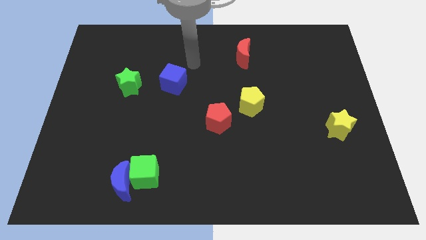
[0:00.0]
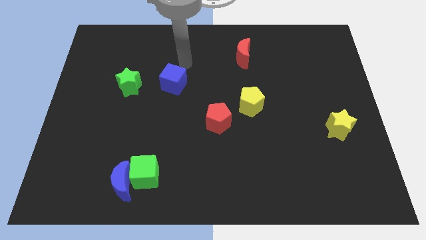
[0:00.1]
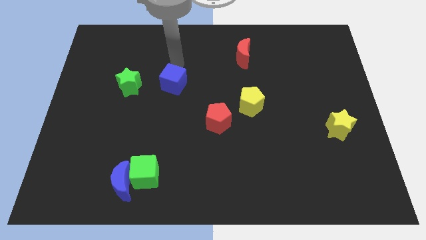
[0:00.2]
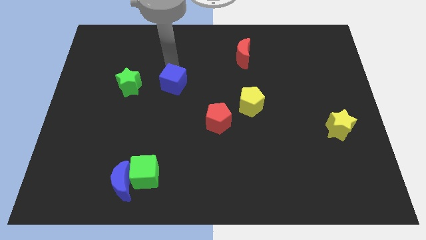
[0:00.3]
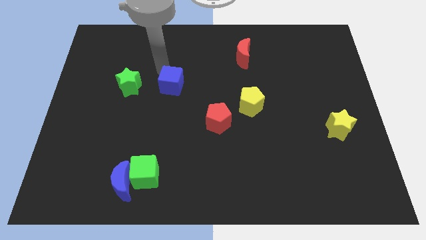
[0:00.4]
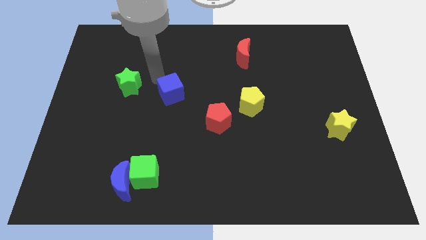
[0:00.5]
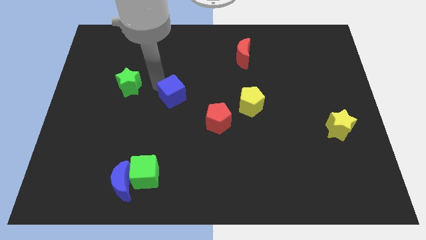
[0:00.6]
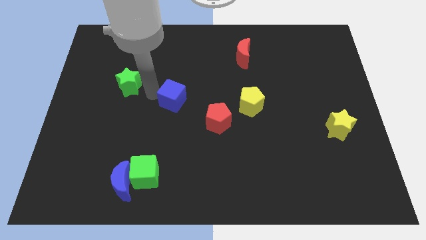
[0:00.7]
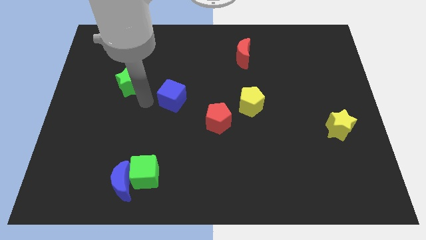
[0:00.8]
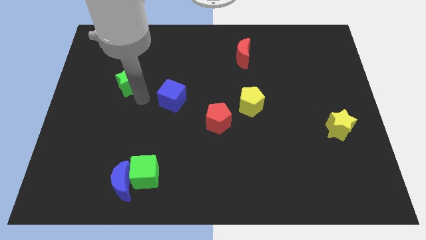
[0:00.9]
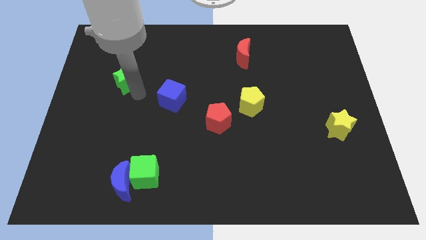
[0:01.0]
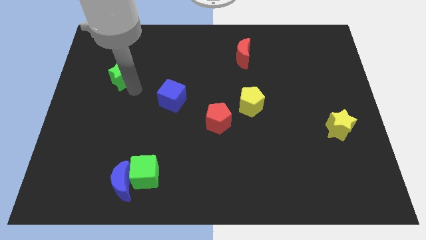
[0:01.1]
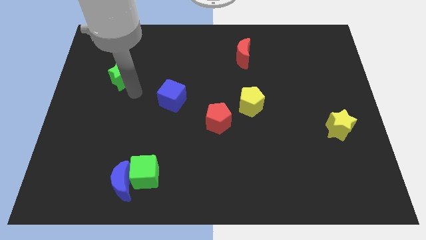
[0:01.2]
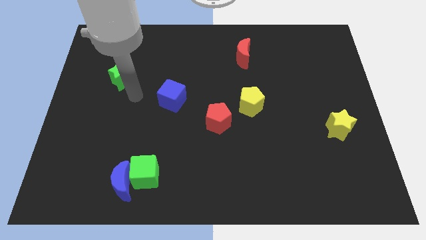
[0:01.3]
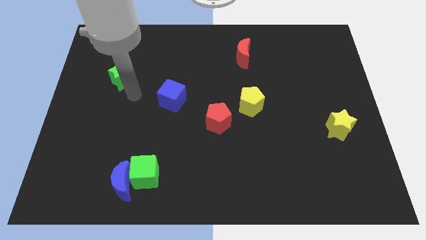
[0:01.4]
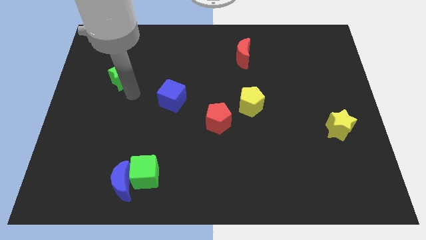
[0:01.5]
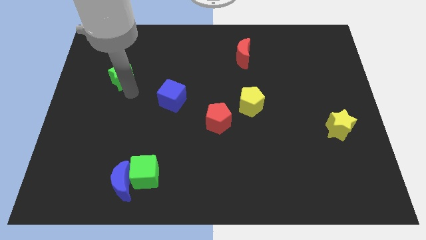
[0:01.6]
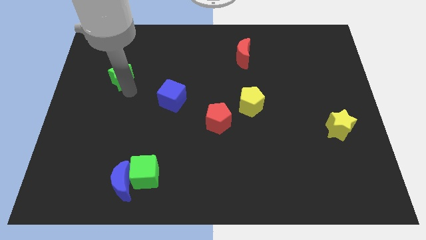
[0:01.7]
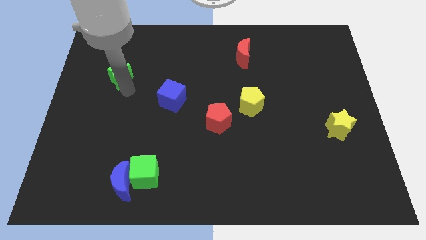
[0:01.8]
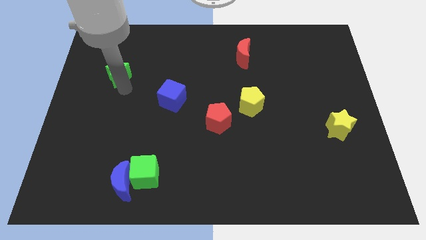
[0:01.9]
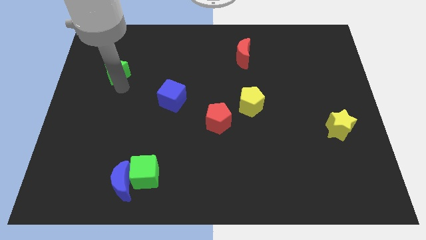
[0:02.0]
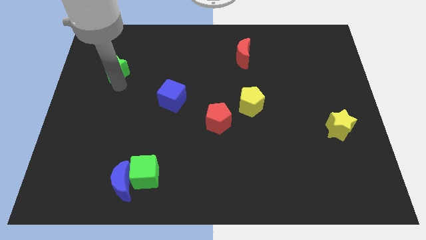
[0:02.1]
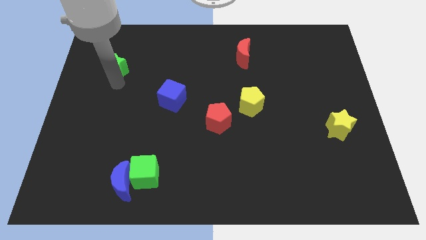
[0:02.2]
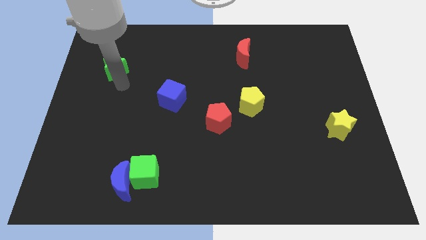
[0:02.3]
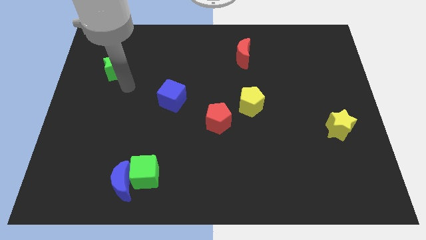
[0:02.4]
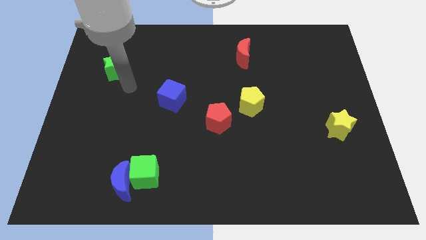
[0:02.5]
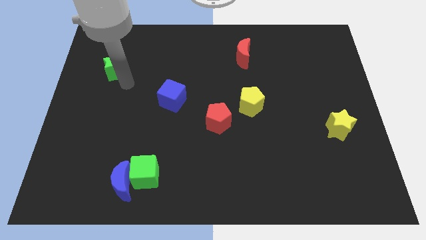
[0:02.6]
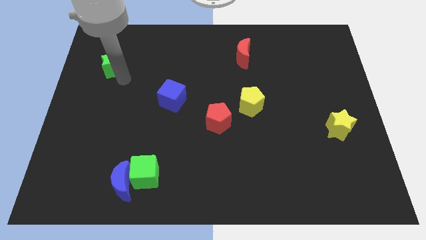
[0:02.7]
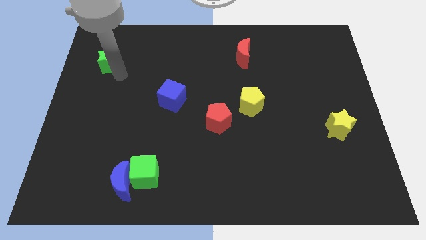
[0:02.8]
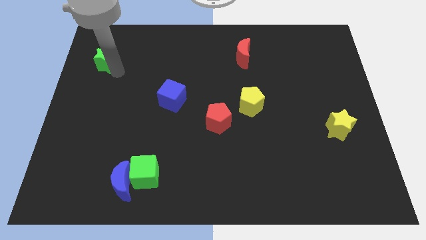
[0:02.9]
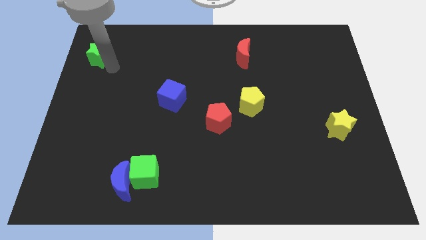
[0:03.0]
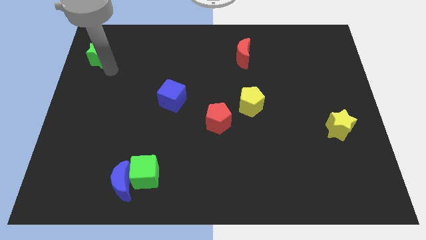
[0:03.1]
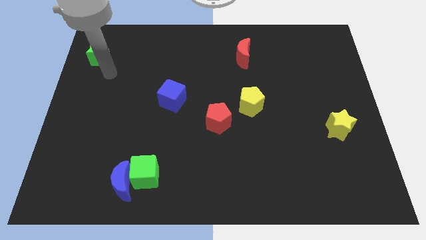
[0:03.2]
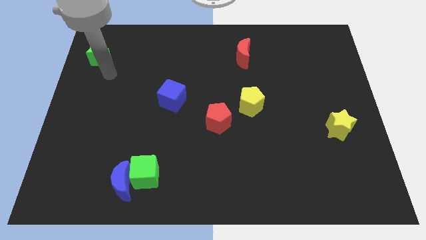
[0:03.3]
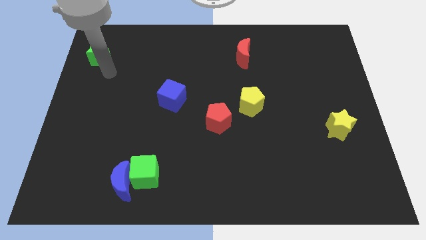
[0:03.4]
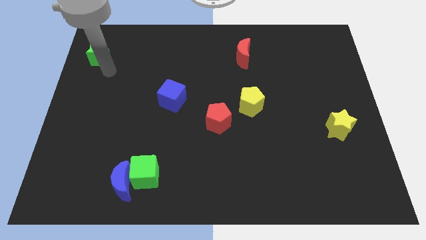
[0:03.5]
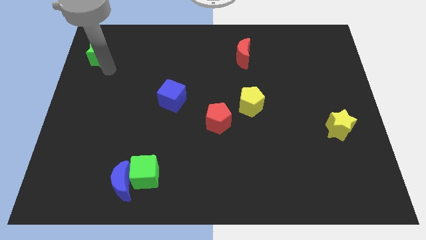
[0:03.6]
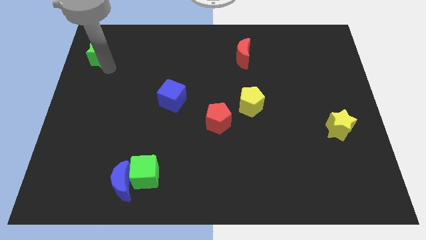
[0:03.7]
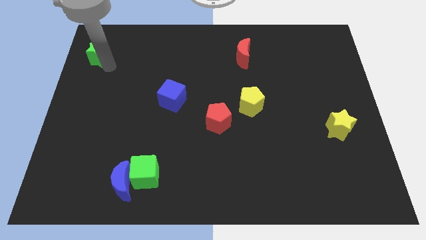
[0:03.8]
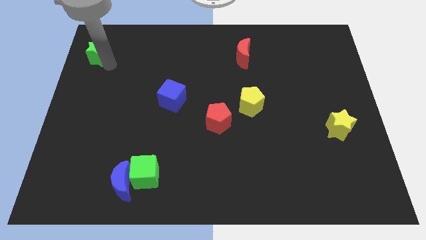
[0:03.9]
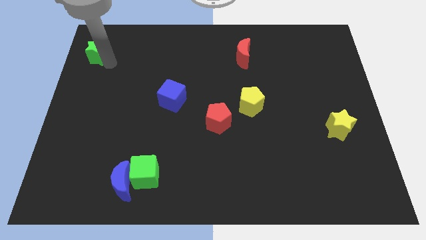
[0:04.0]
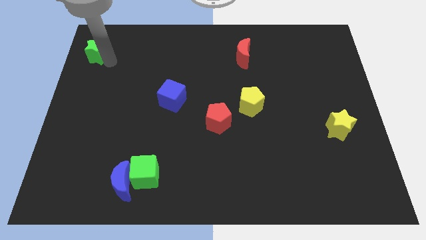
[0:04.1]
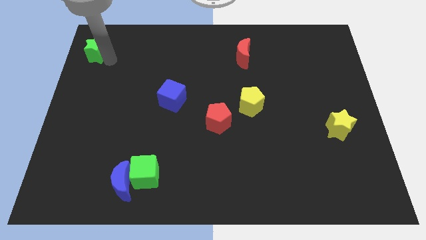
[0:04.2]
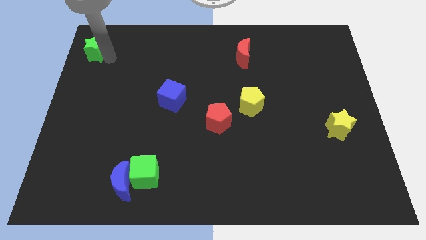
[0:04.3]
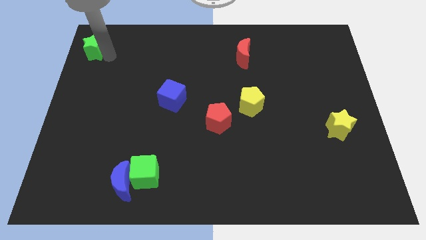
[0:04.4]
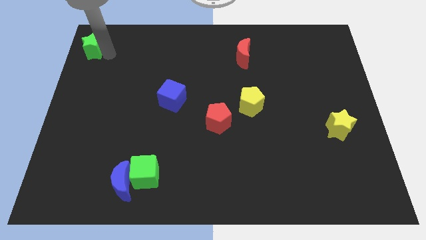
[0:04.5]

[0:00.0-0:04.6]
move the green star to the top left corner

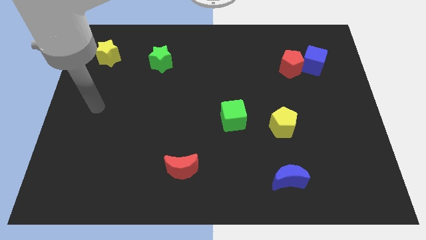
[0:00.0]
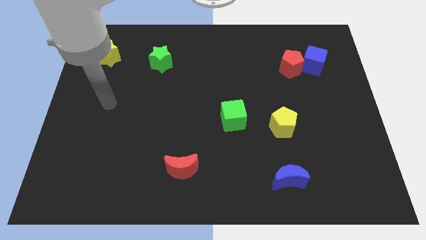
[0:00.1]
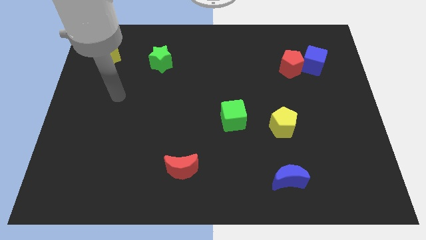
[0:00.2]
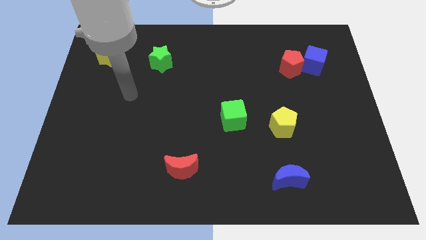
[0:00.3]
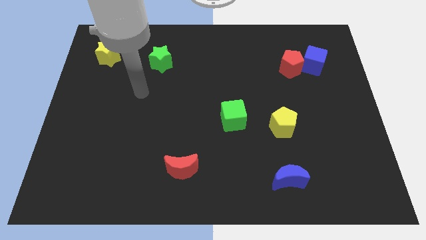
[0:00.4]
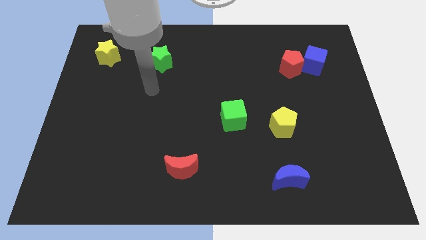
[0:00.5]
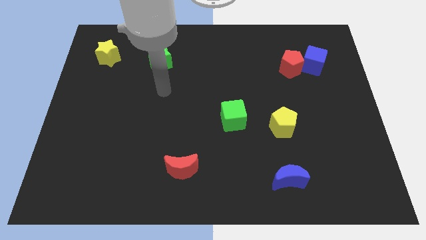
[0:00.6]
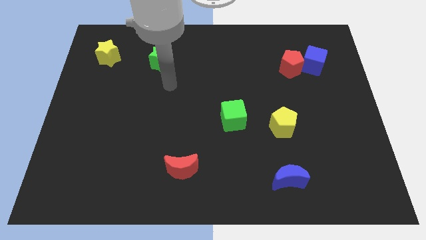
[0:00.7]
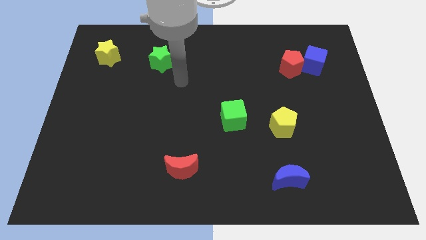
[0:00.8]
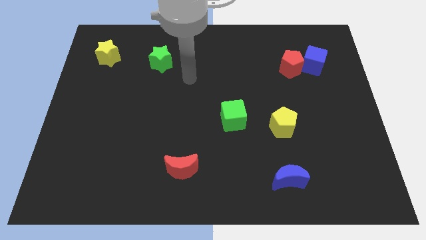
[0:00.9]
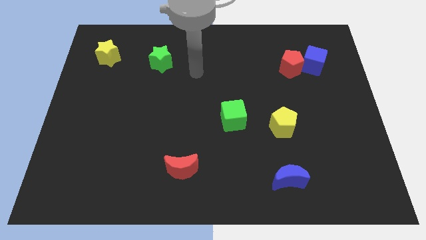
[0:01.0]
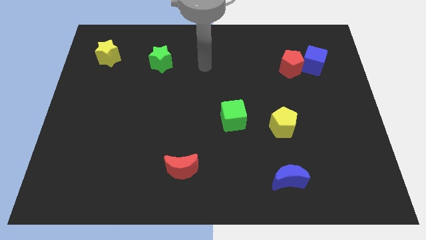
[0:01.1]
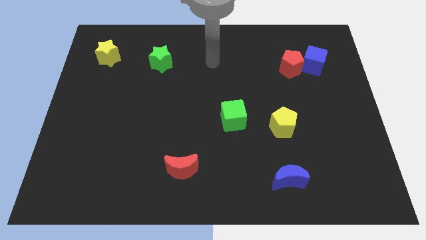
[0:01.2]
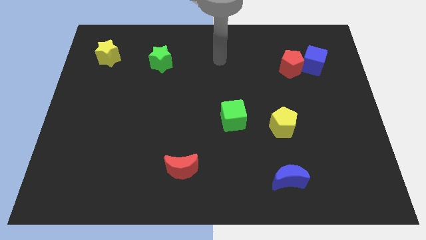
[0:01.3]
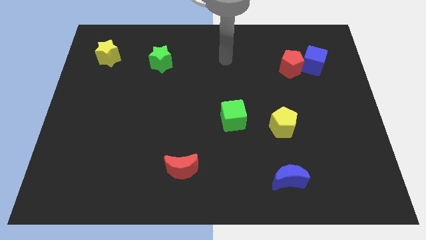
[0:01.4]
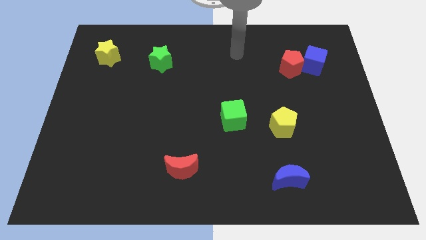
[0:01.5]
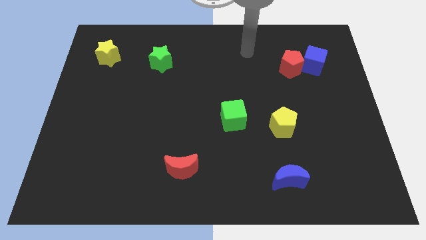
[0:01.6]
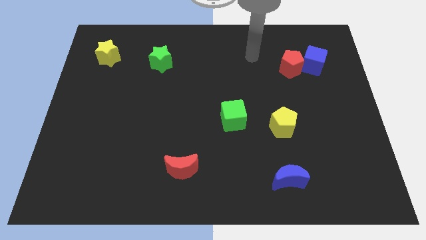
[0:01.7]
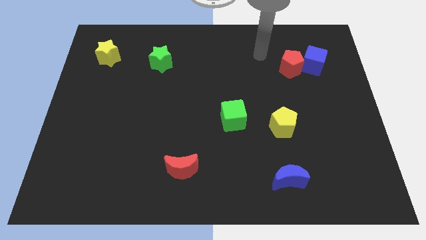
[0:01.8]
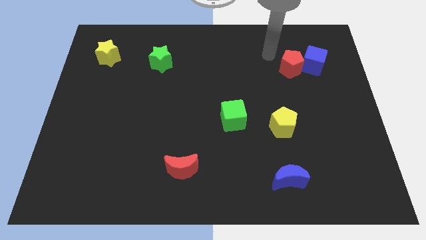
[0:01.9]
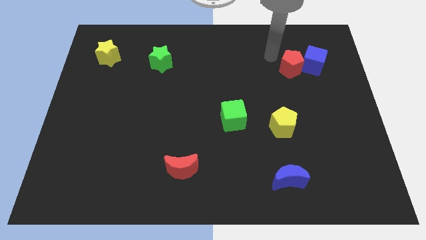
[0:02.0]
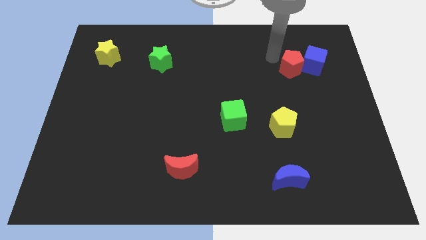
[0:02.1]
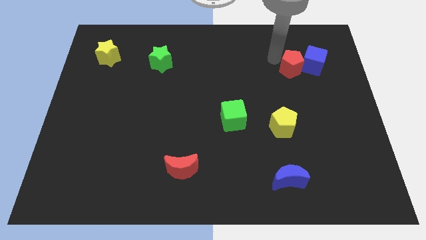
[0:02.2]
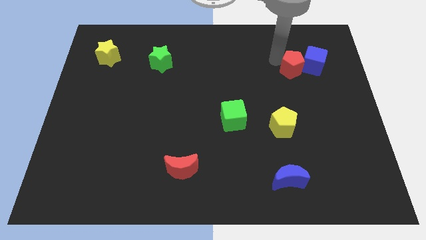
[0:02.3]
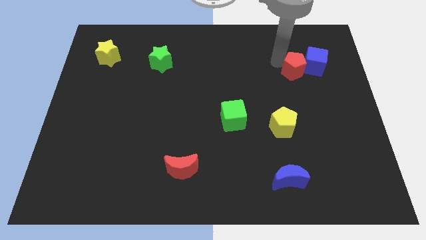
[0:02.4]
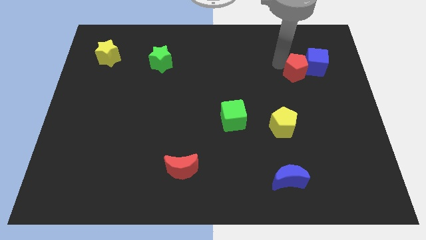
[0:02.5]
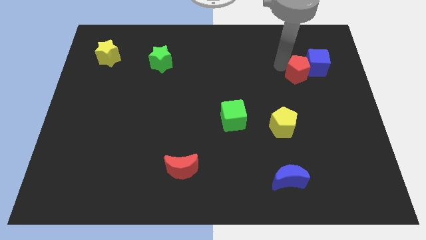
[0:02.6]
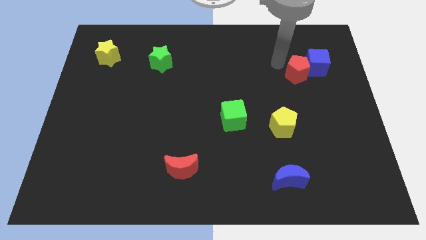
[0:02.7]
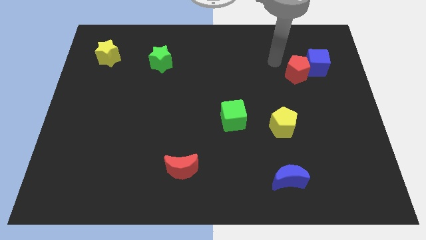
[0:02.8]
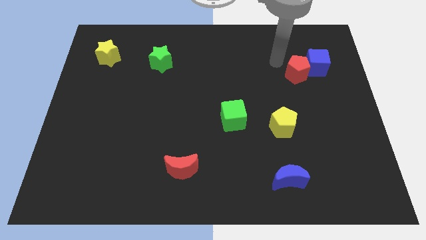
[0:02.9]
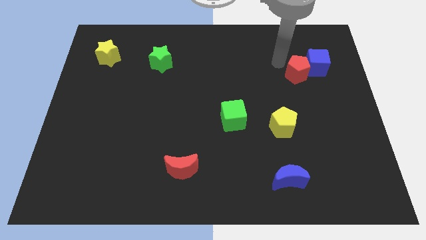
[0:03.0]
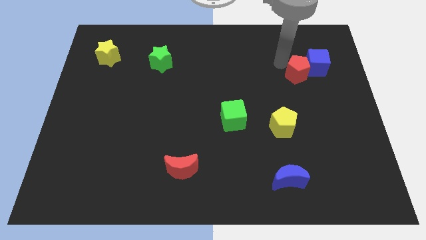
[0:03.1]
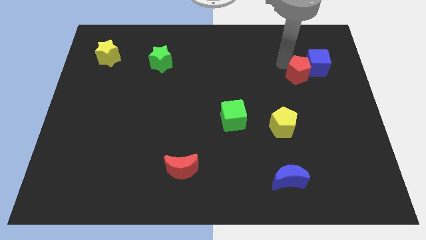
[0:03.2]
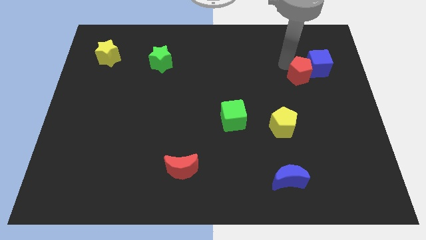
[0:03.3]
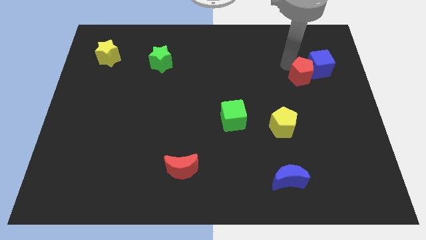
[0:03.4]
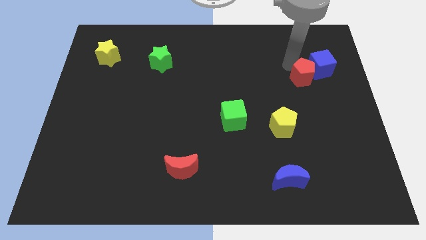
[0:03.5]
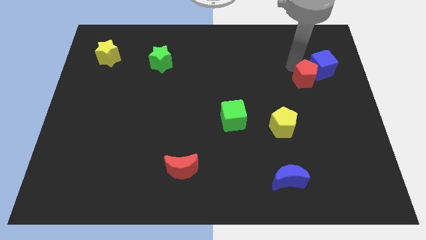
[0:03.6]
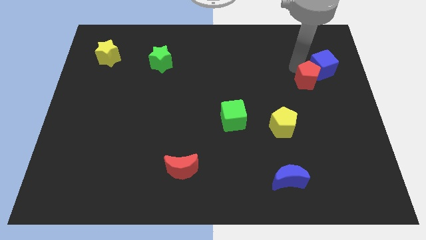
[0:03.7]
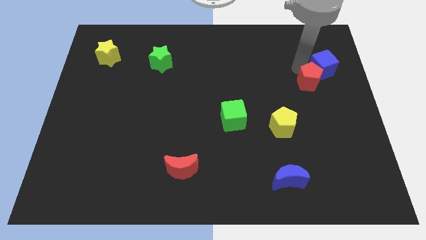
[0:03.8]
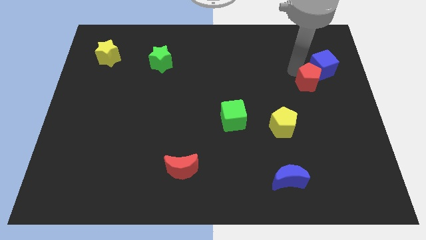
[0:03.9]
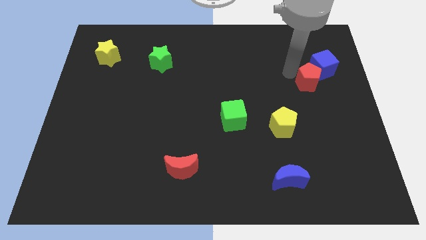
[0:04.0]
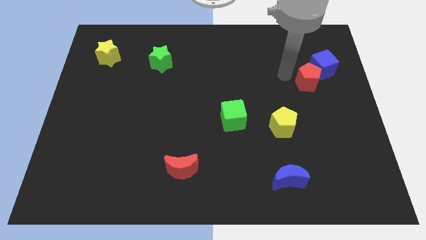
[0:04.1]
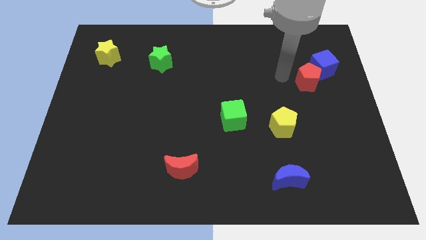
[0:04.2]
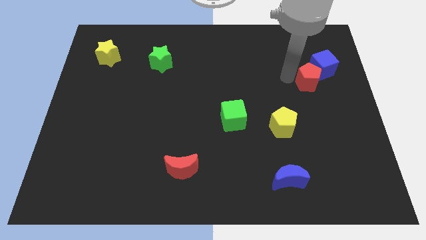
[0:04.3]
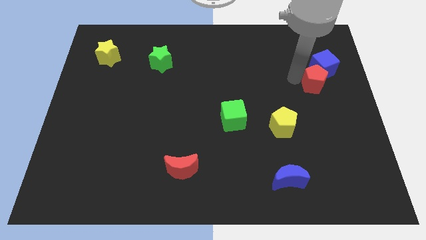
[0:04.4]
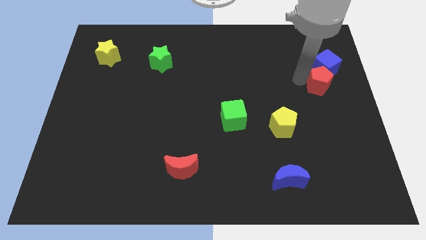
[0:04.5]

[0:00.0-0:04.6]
put the red pentagon to the right side of the board
